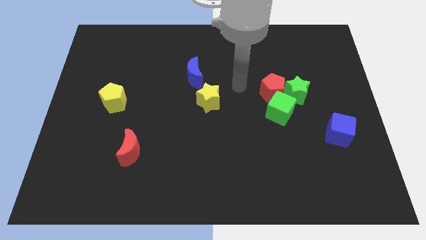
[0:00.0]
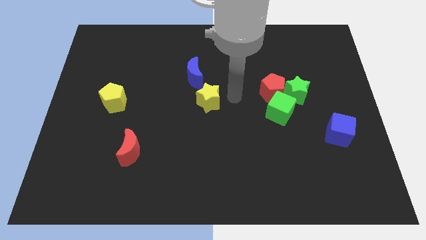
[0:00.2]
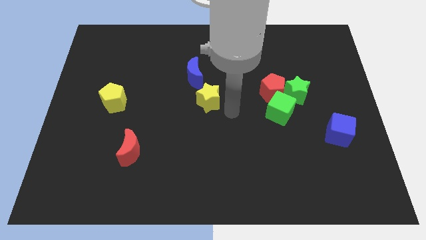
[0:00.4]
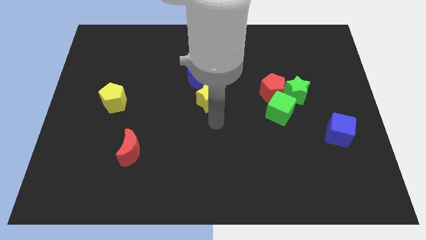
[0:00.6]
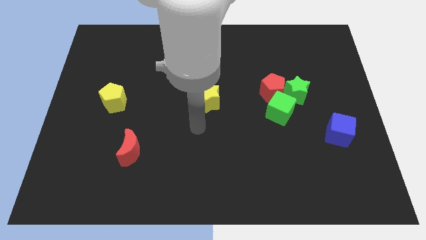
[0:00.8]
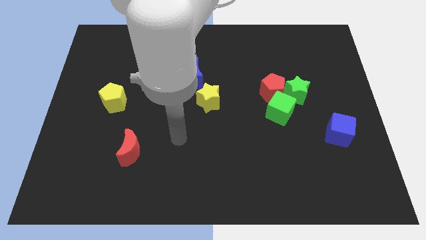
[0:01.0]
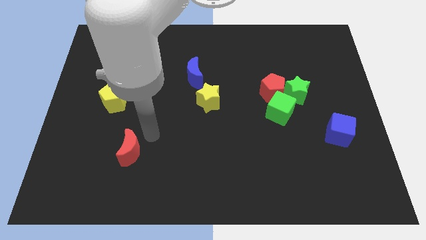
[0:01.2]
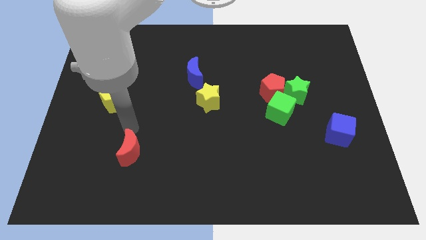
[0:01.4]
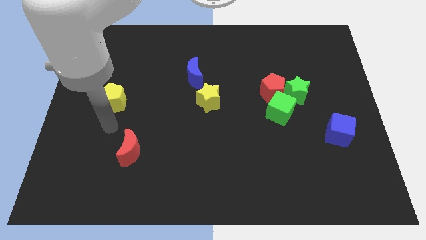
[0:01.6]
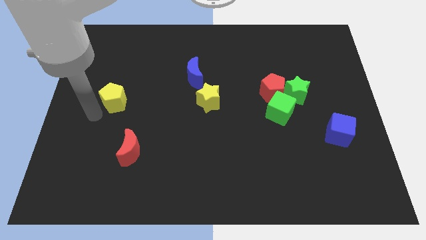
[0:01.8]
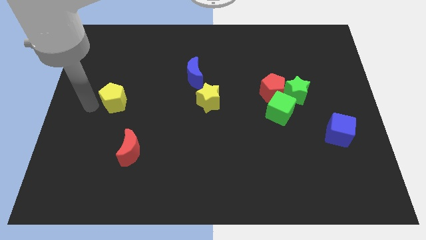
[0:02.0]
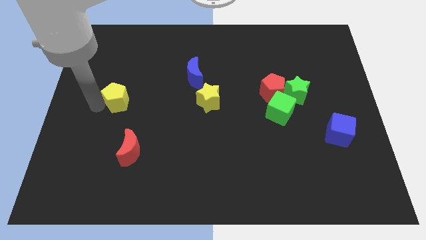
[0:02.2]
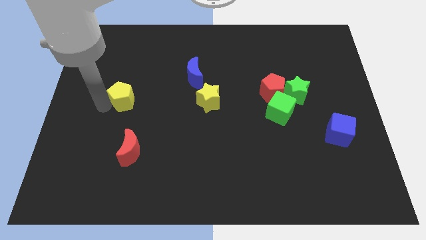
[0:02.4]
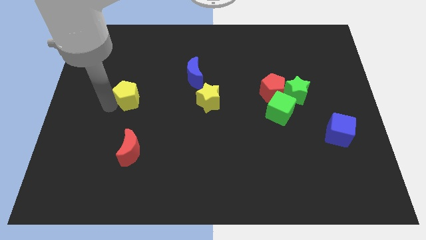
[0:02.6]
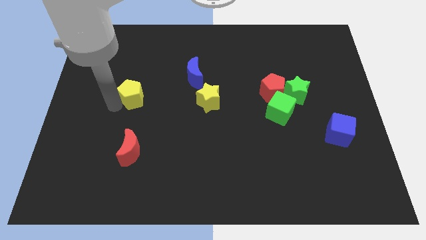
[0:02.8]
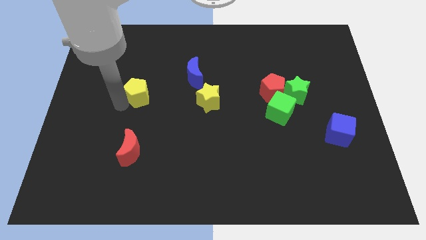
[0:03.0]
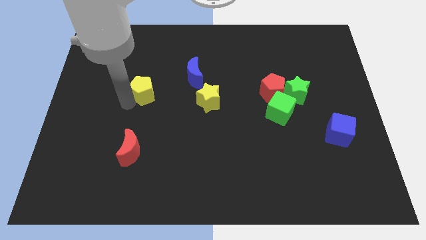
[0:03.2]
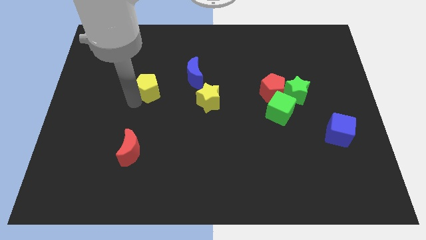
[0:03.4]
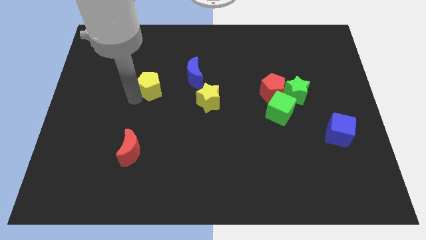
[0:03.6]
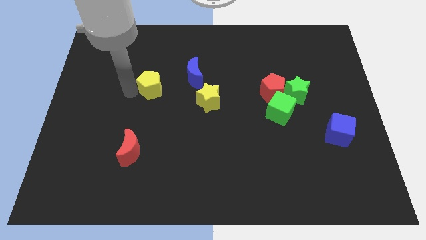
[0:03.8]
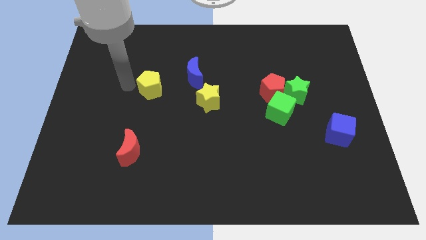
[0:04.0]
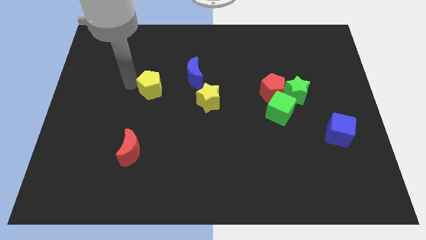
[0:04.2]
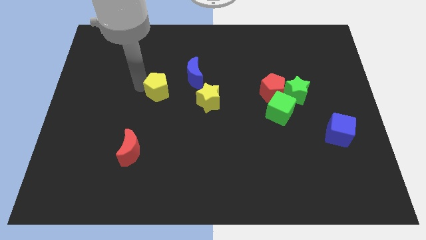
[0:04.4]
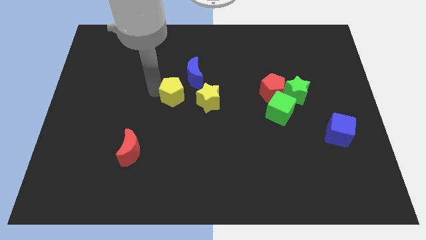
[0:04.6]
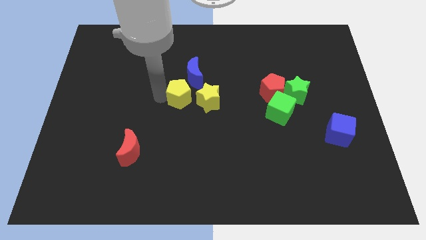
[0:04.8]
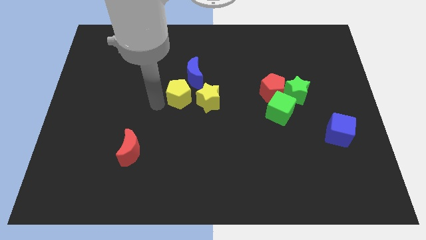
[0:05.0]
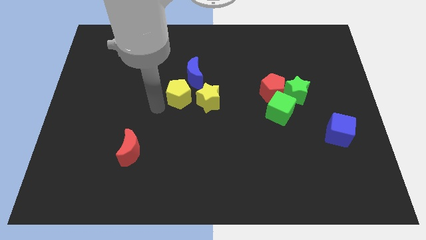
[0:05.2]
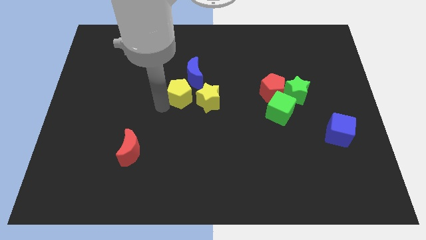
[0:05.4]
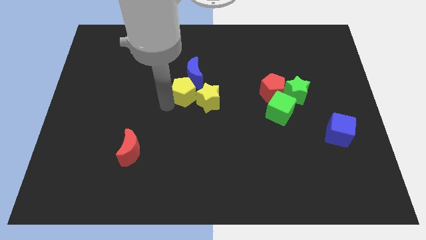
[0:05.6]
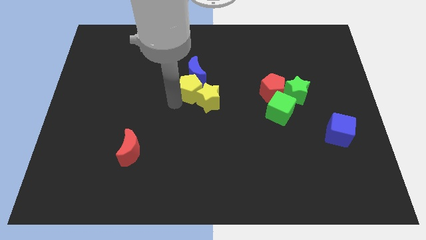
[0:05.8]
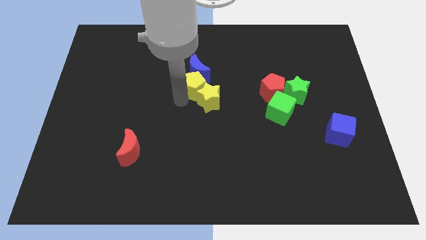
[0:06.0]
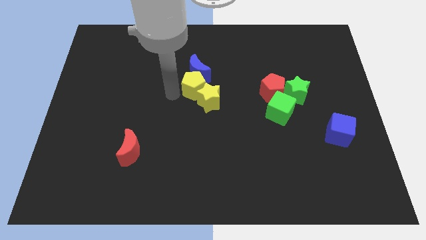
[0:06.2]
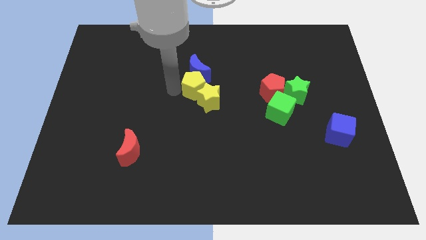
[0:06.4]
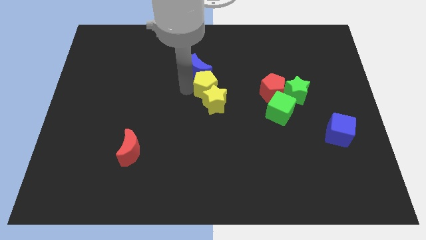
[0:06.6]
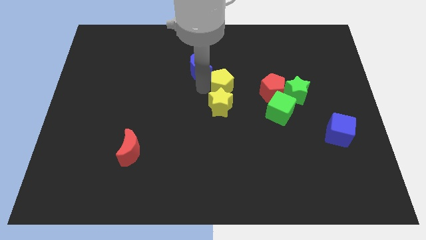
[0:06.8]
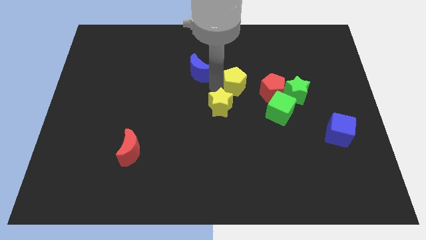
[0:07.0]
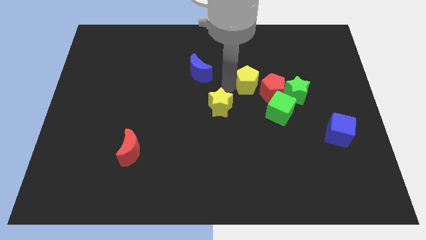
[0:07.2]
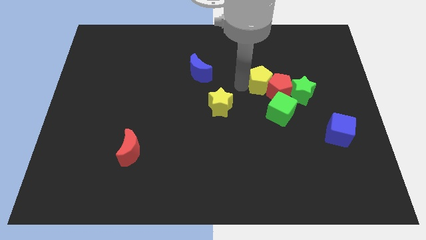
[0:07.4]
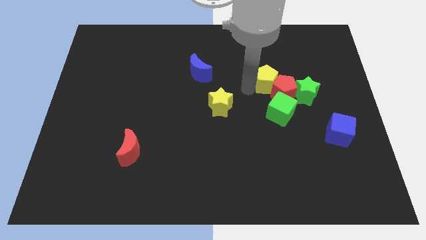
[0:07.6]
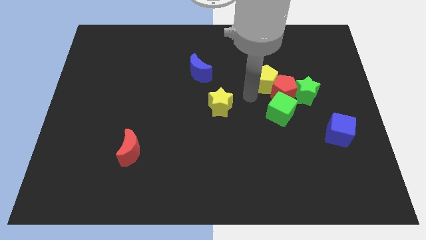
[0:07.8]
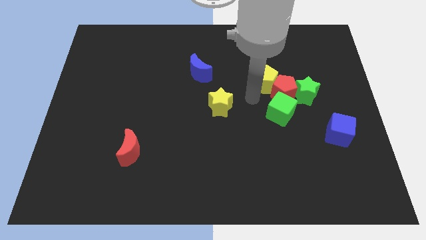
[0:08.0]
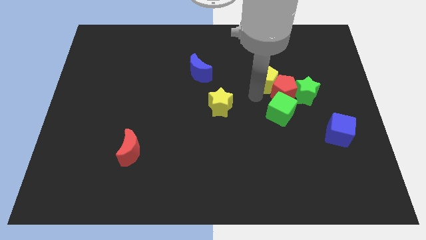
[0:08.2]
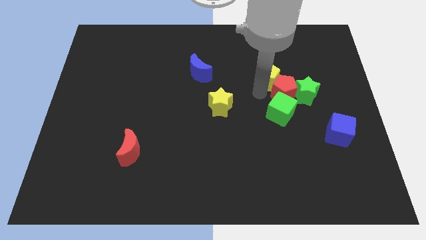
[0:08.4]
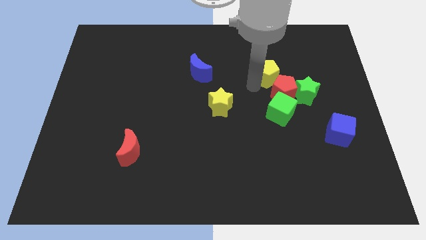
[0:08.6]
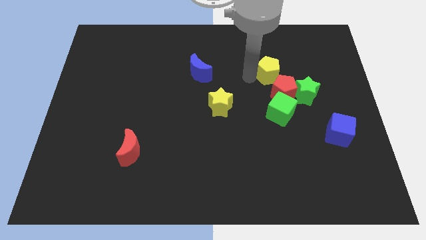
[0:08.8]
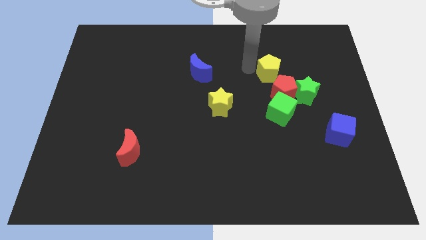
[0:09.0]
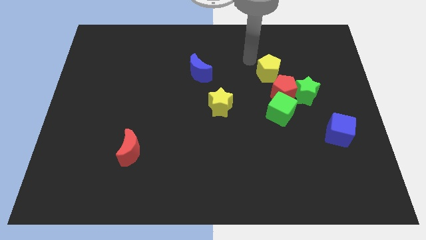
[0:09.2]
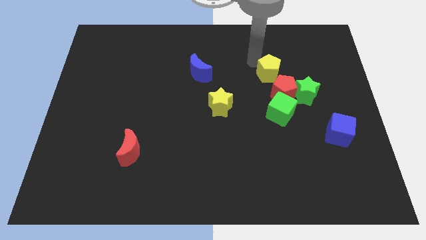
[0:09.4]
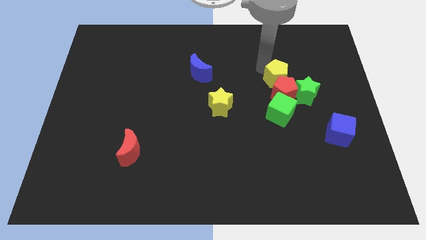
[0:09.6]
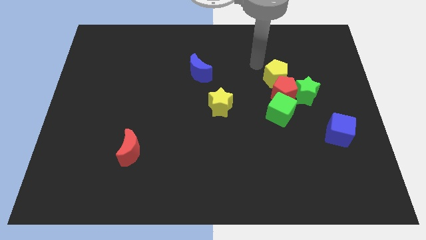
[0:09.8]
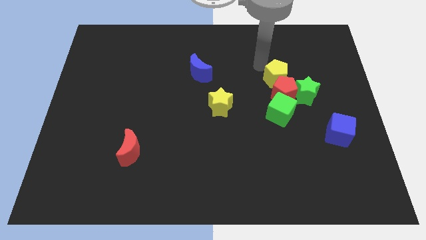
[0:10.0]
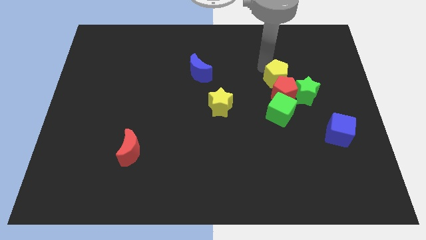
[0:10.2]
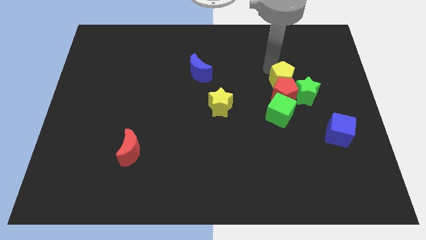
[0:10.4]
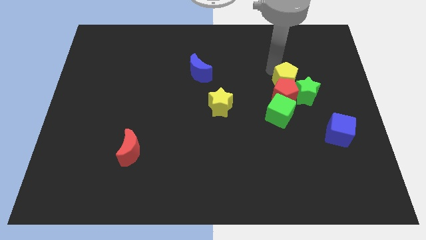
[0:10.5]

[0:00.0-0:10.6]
slide the yellow pentagon next to the green star

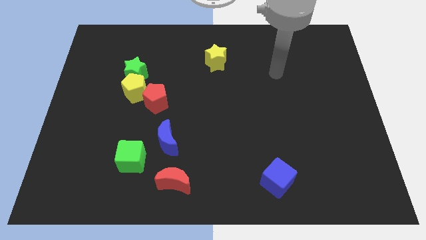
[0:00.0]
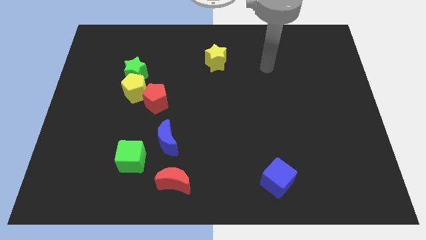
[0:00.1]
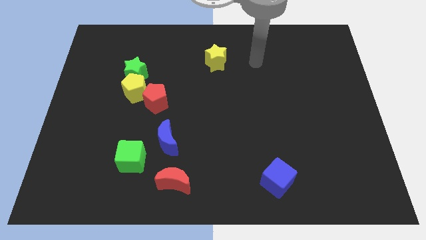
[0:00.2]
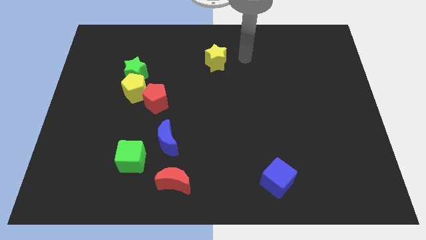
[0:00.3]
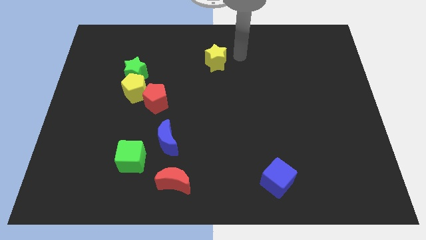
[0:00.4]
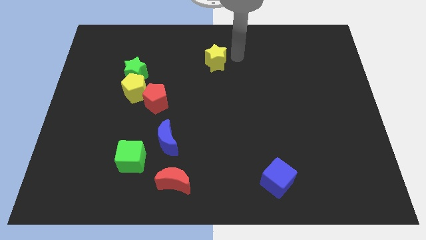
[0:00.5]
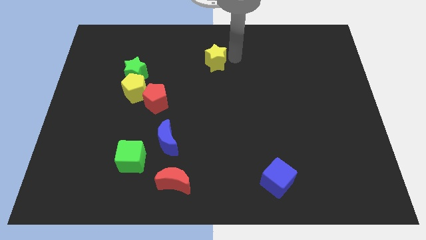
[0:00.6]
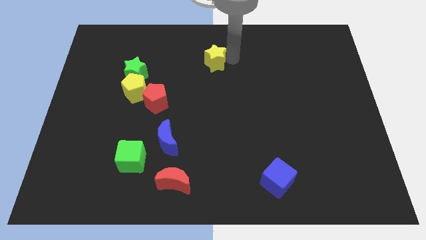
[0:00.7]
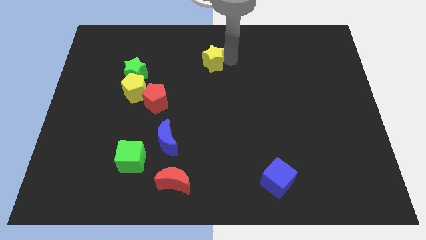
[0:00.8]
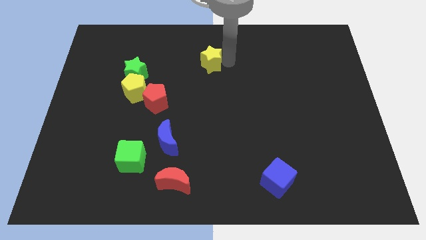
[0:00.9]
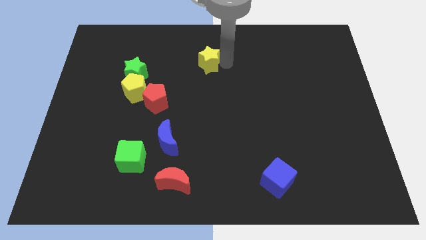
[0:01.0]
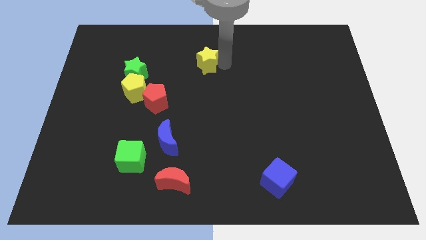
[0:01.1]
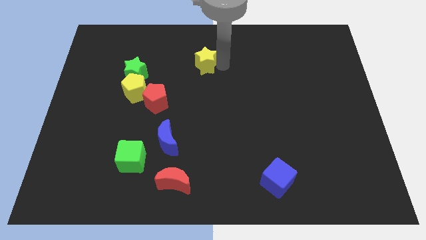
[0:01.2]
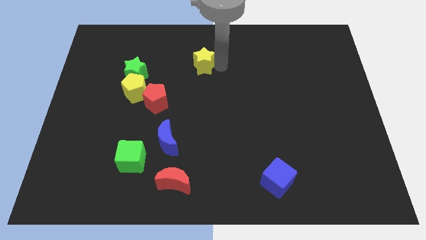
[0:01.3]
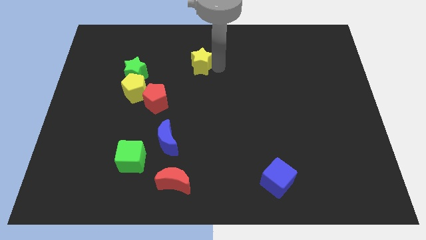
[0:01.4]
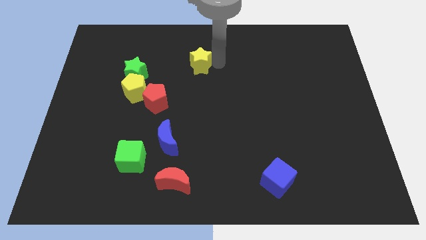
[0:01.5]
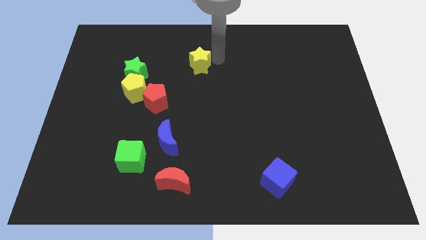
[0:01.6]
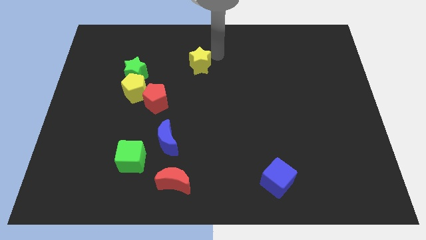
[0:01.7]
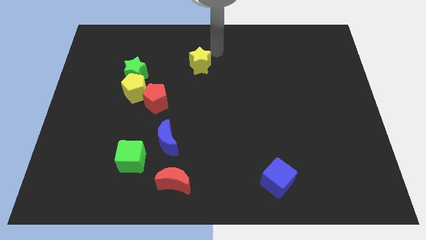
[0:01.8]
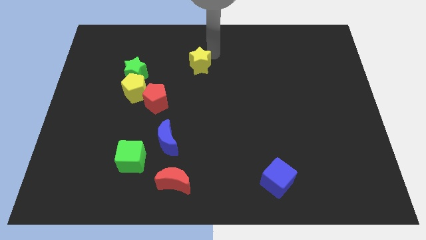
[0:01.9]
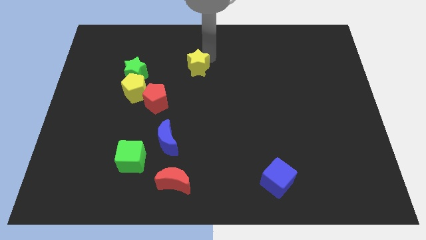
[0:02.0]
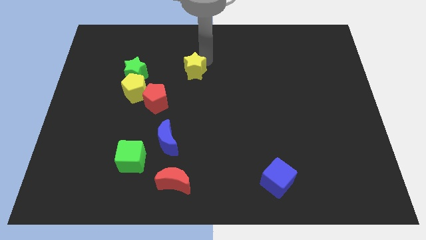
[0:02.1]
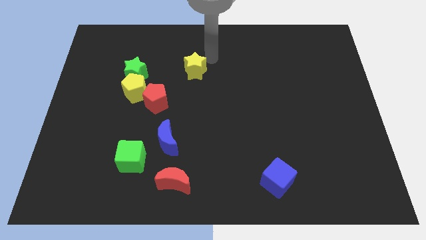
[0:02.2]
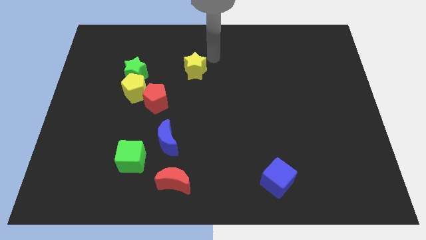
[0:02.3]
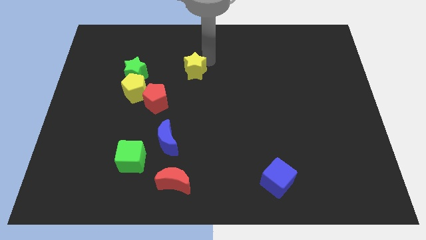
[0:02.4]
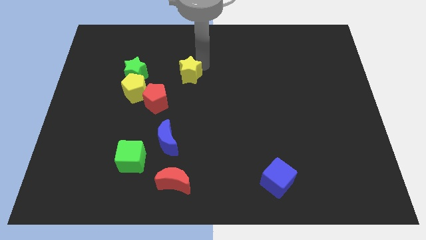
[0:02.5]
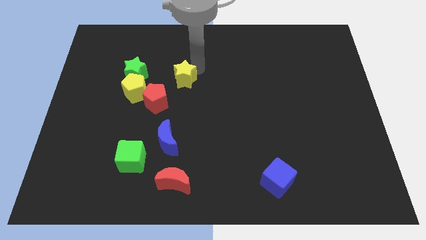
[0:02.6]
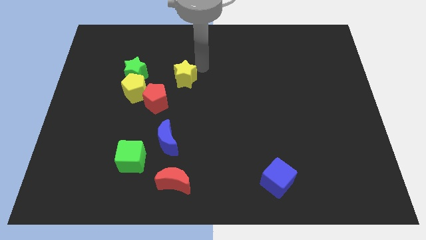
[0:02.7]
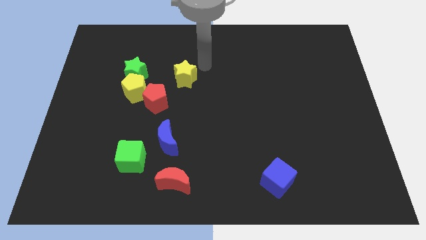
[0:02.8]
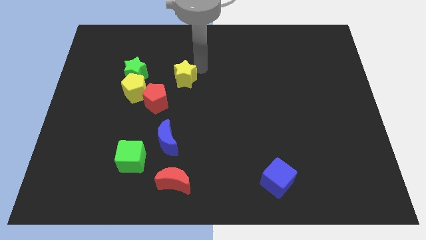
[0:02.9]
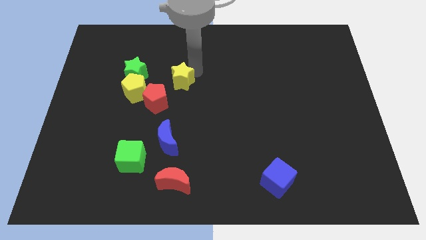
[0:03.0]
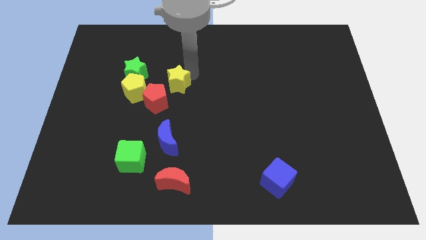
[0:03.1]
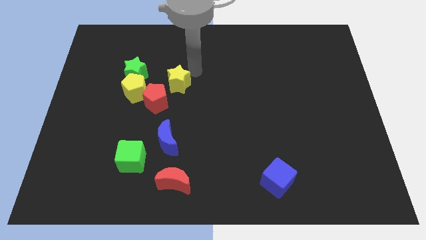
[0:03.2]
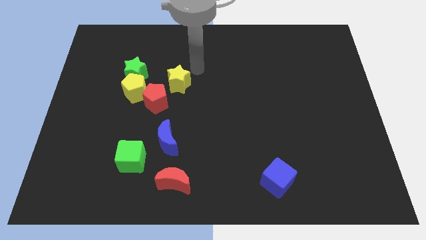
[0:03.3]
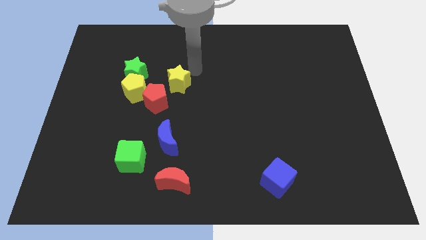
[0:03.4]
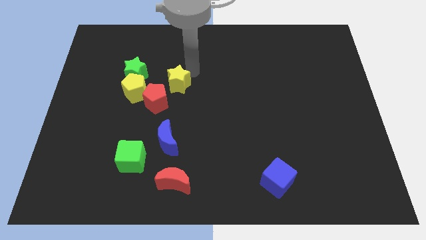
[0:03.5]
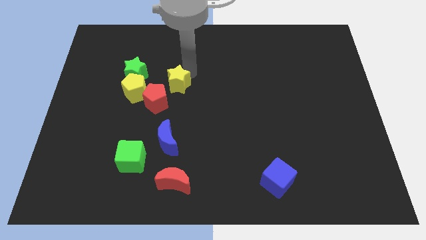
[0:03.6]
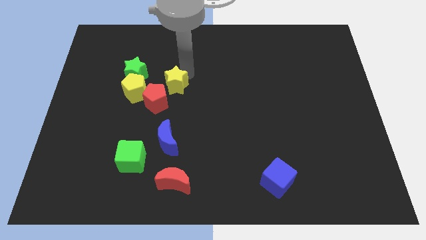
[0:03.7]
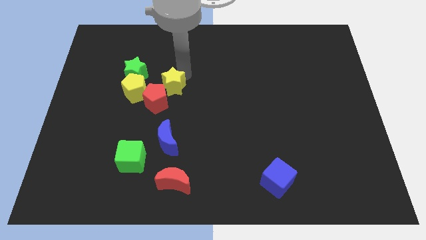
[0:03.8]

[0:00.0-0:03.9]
push the yellow star close to the red pentagon
